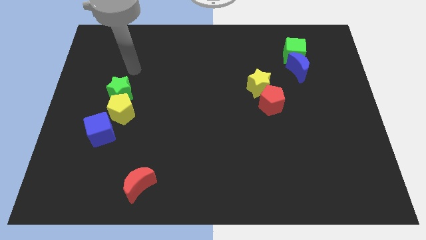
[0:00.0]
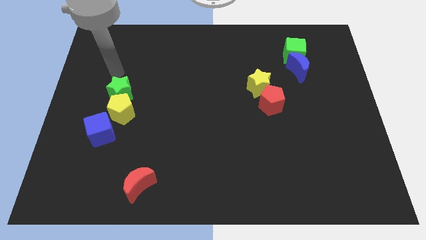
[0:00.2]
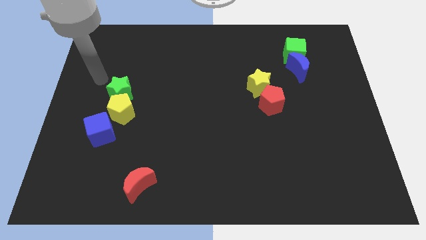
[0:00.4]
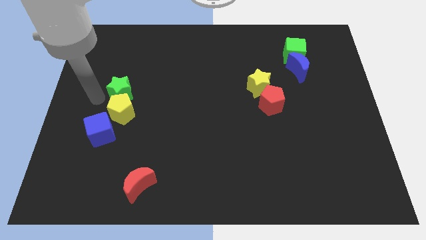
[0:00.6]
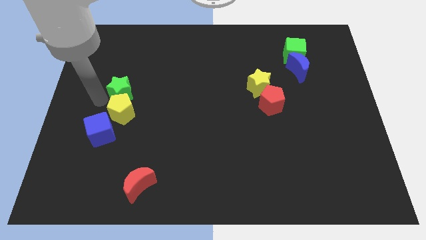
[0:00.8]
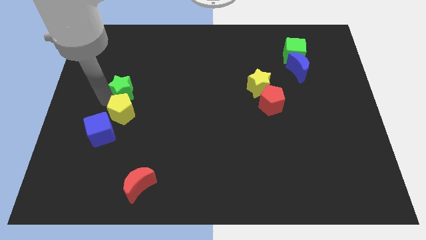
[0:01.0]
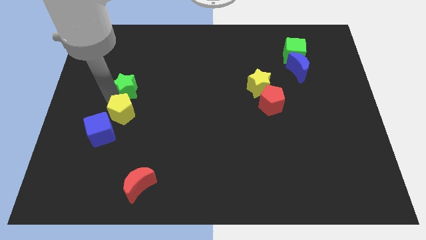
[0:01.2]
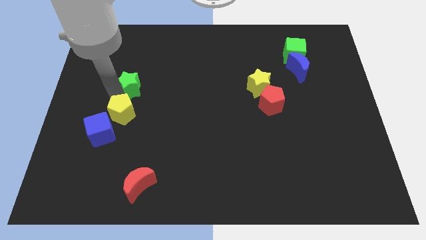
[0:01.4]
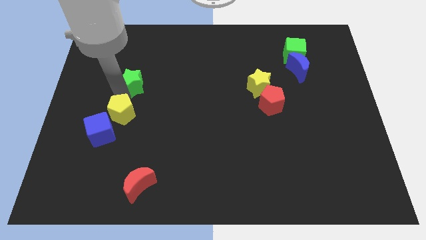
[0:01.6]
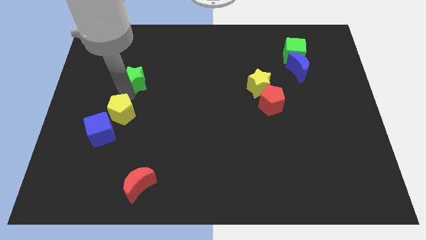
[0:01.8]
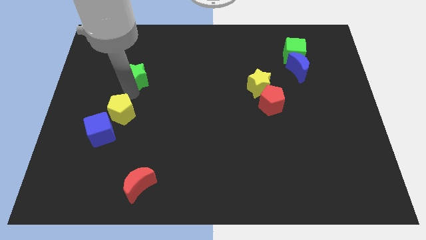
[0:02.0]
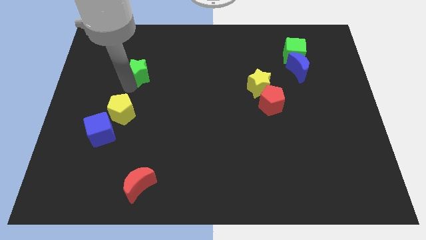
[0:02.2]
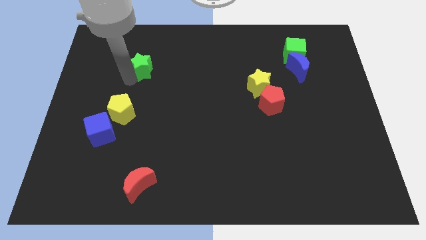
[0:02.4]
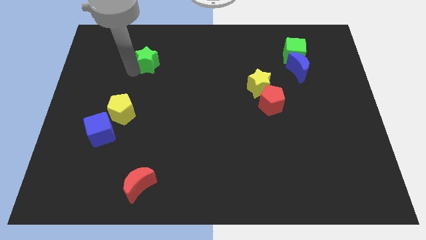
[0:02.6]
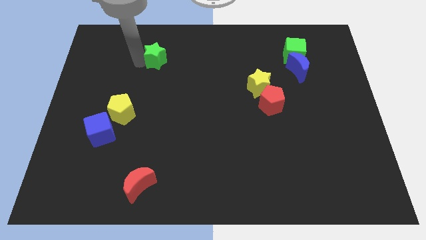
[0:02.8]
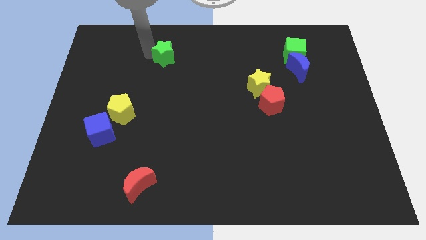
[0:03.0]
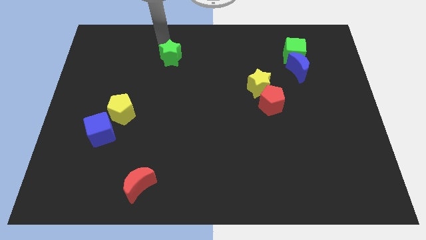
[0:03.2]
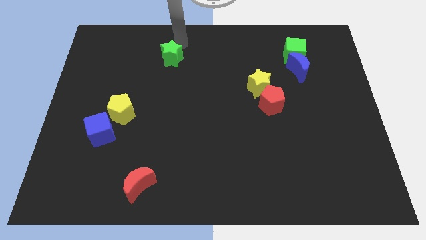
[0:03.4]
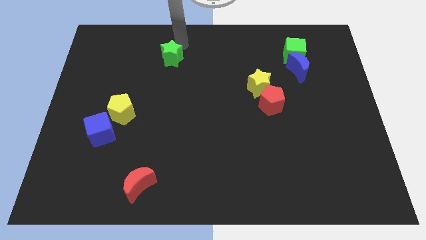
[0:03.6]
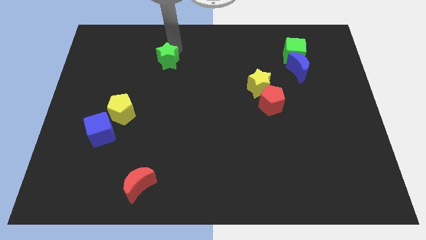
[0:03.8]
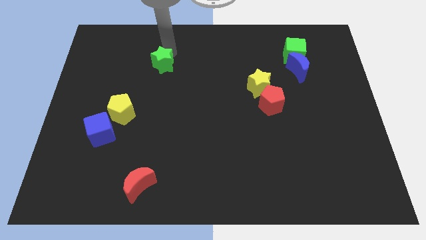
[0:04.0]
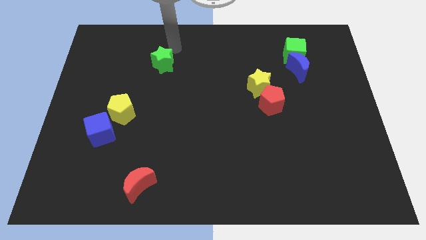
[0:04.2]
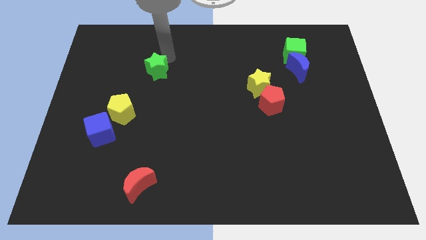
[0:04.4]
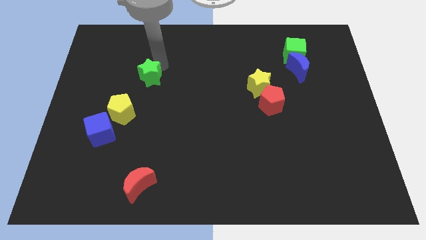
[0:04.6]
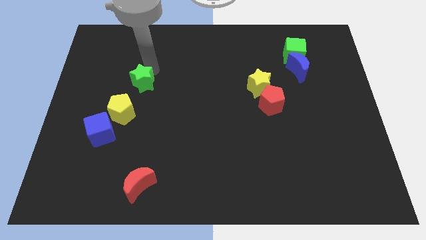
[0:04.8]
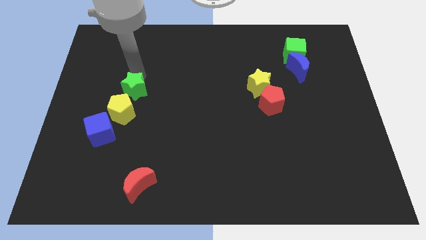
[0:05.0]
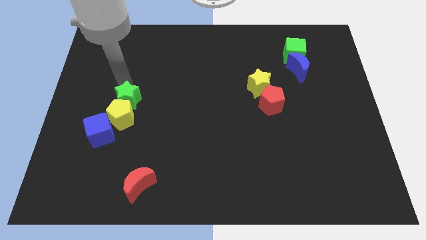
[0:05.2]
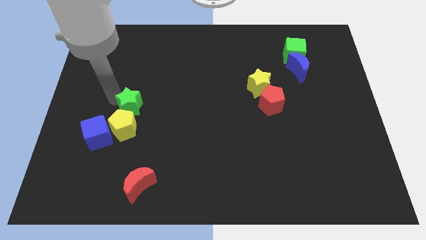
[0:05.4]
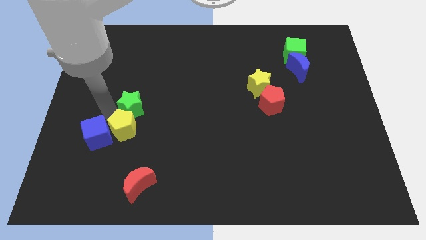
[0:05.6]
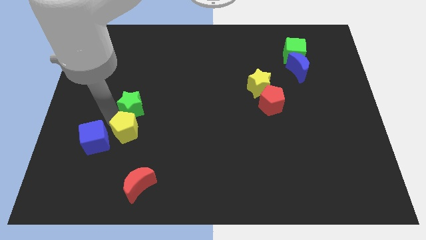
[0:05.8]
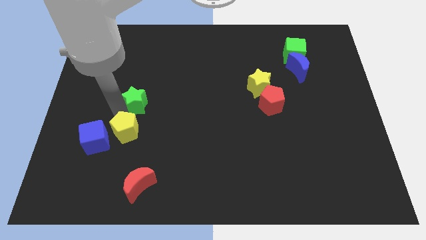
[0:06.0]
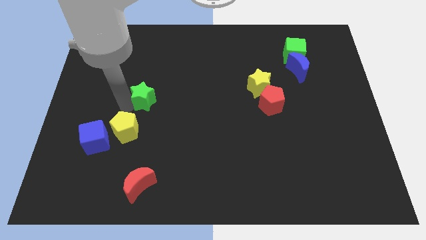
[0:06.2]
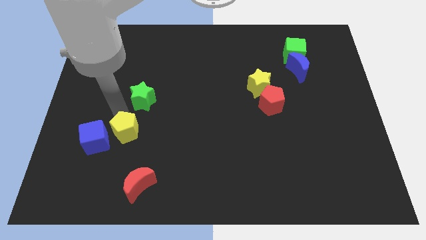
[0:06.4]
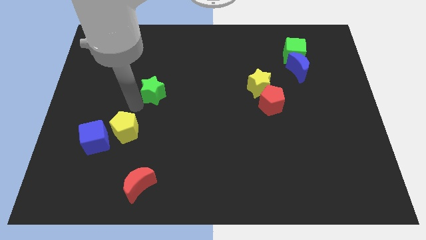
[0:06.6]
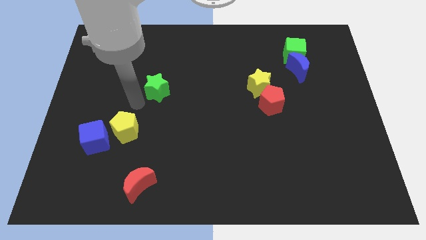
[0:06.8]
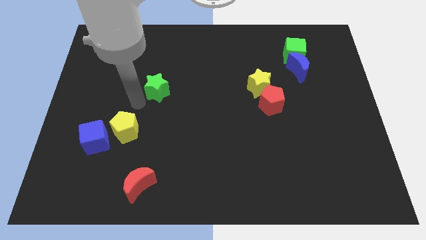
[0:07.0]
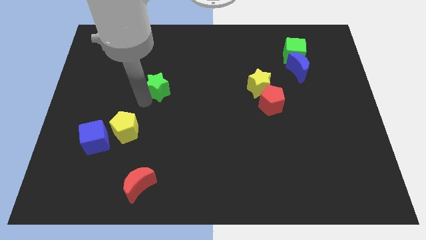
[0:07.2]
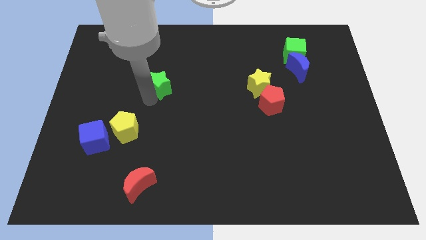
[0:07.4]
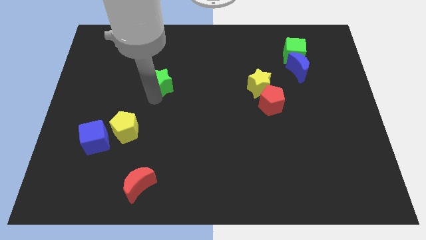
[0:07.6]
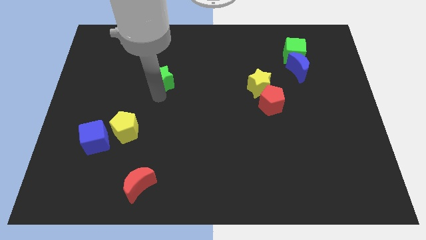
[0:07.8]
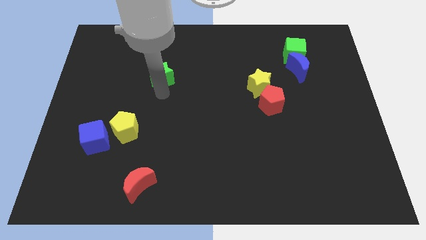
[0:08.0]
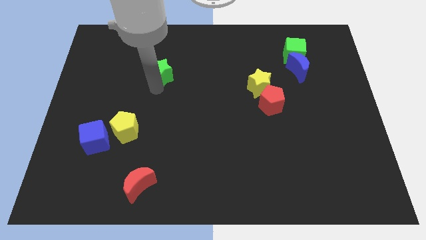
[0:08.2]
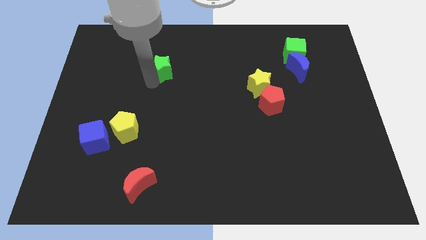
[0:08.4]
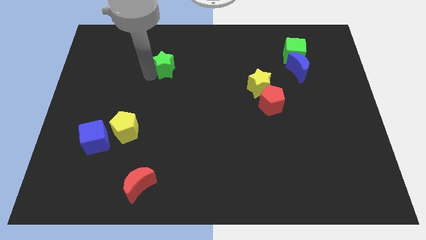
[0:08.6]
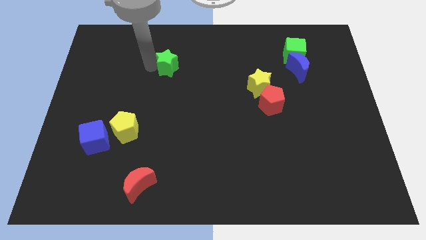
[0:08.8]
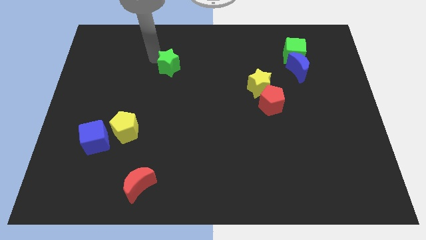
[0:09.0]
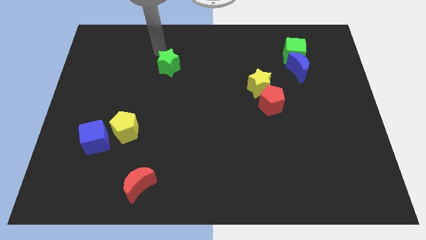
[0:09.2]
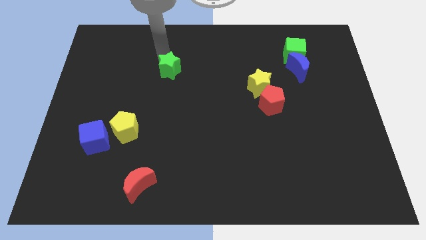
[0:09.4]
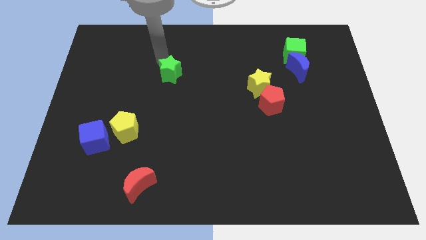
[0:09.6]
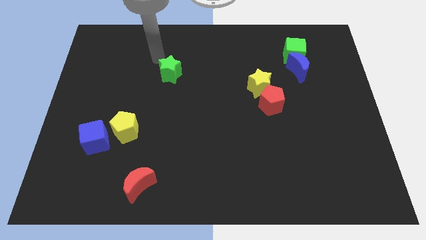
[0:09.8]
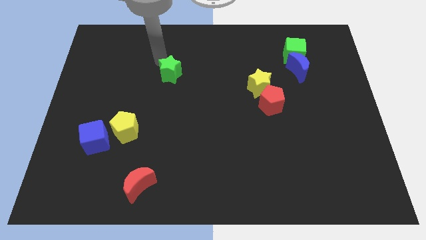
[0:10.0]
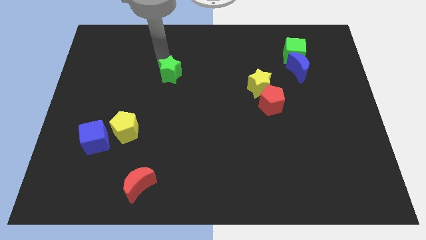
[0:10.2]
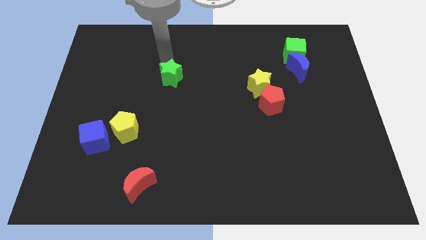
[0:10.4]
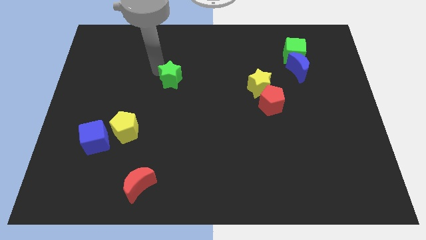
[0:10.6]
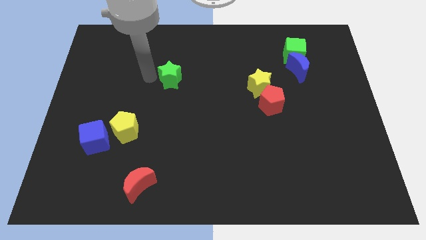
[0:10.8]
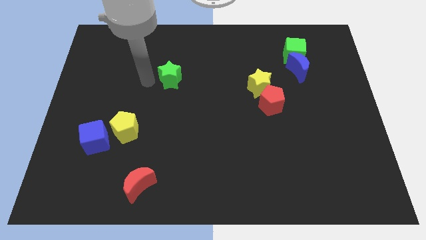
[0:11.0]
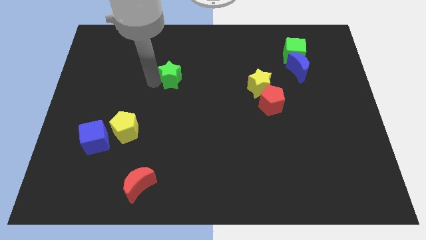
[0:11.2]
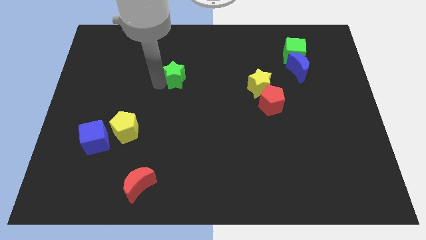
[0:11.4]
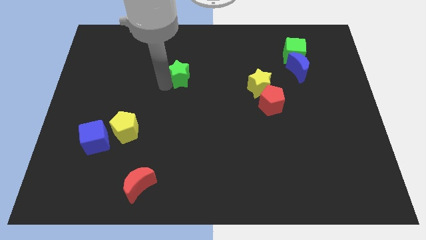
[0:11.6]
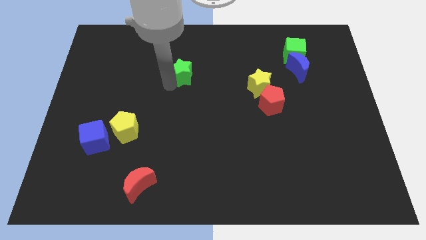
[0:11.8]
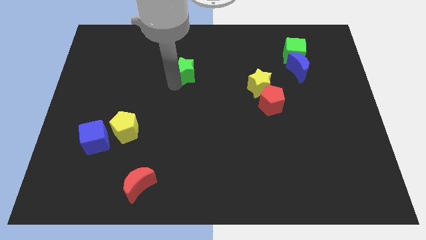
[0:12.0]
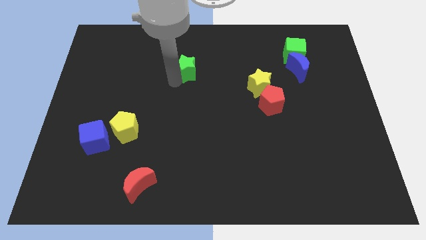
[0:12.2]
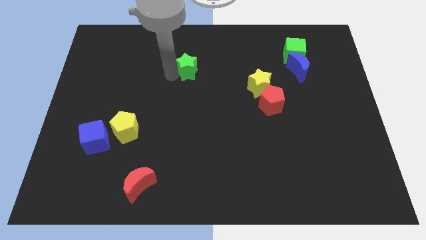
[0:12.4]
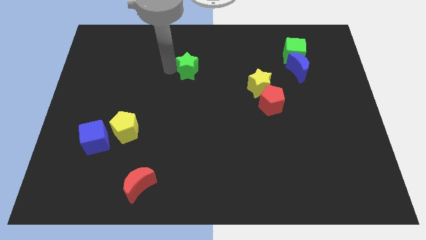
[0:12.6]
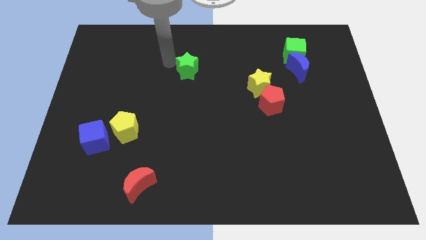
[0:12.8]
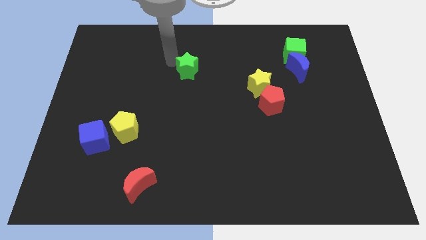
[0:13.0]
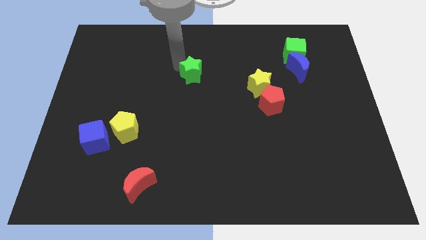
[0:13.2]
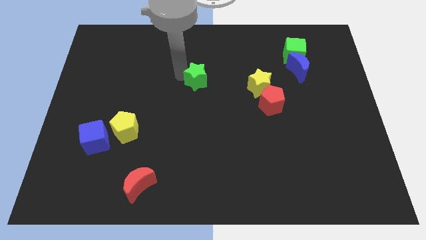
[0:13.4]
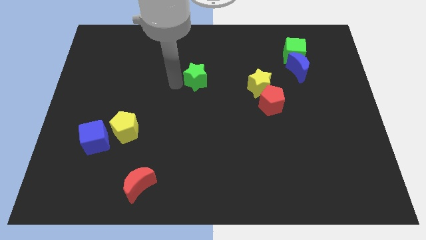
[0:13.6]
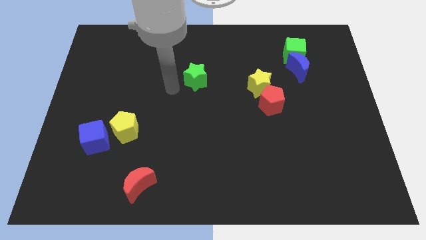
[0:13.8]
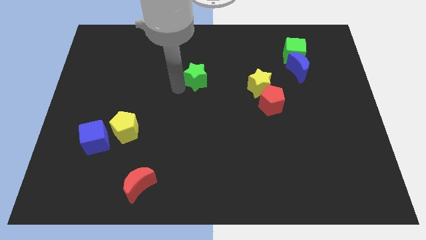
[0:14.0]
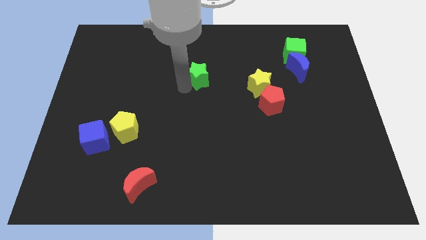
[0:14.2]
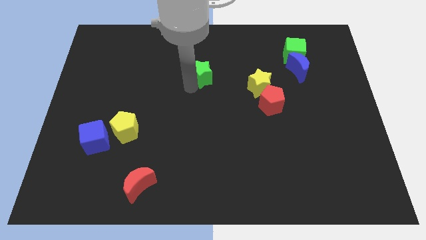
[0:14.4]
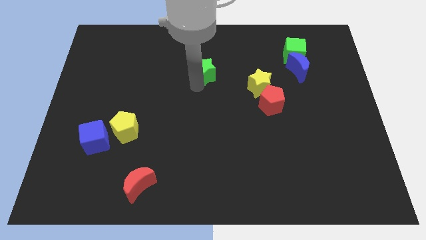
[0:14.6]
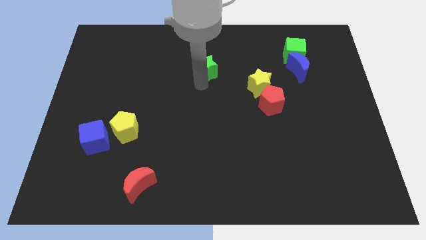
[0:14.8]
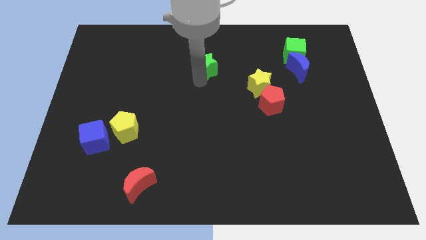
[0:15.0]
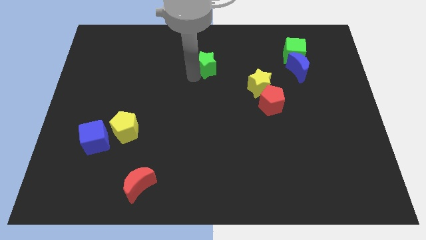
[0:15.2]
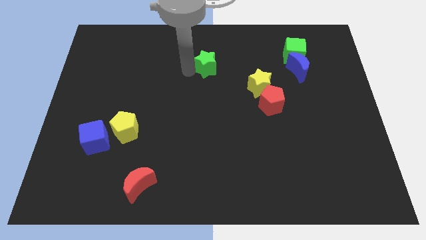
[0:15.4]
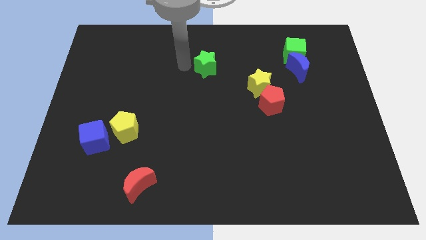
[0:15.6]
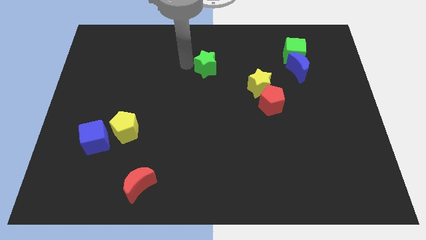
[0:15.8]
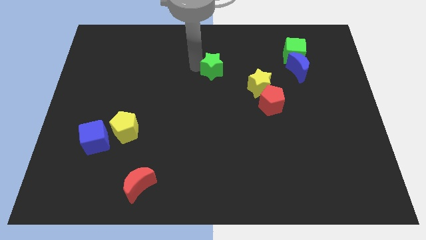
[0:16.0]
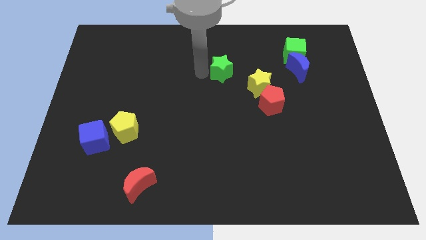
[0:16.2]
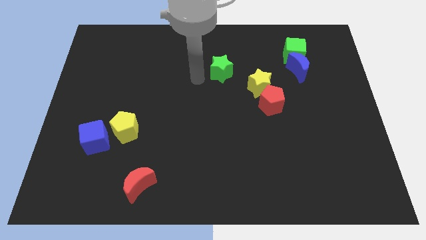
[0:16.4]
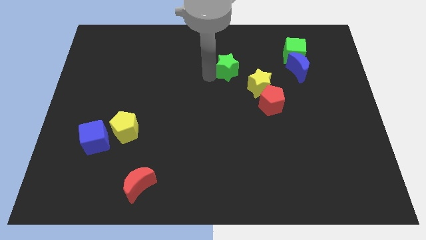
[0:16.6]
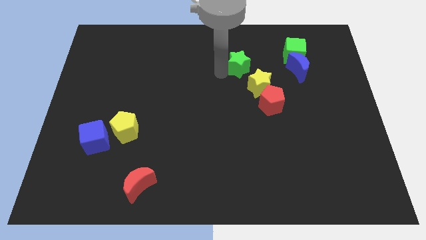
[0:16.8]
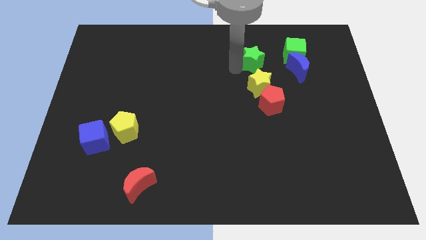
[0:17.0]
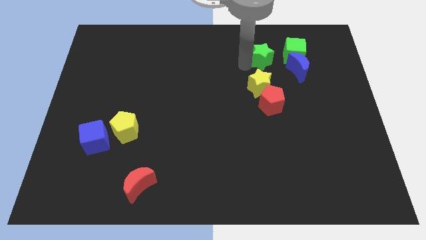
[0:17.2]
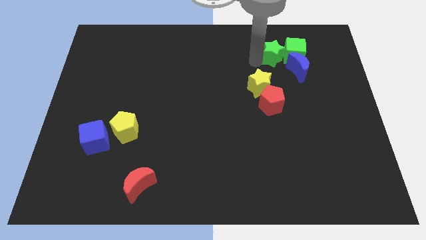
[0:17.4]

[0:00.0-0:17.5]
move the green star to the green cube
